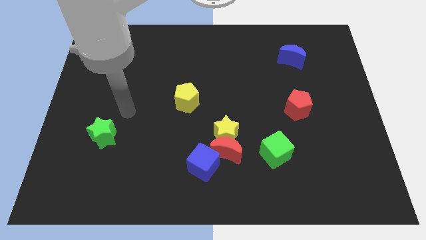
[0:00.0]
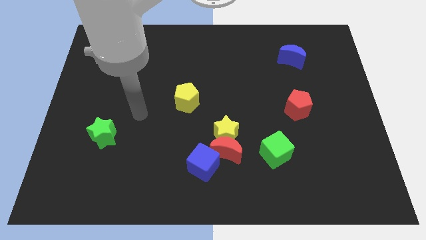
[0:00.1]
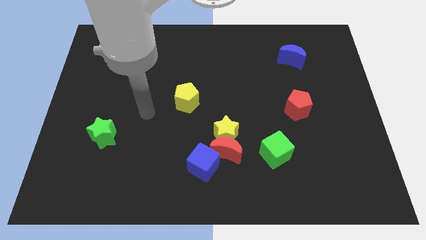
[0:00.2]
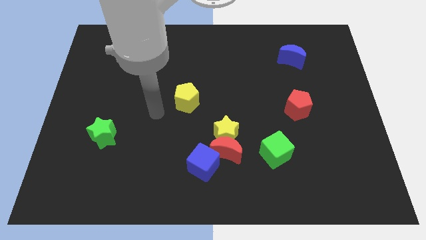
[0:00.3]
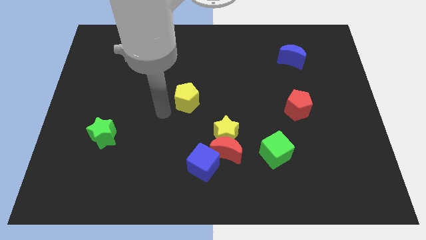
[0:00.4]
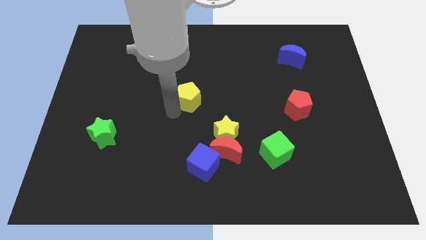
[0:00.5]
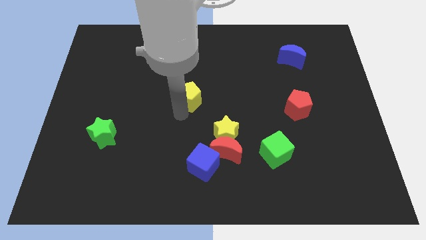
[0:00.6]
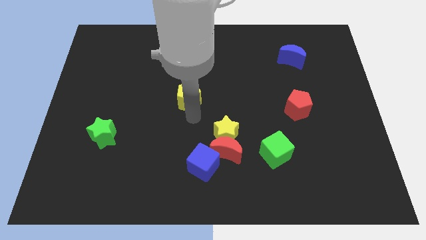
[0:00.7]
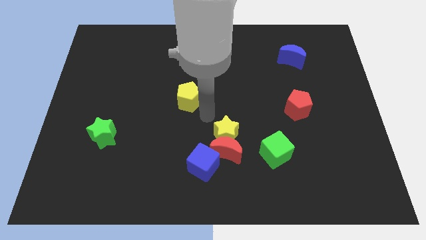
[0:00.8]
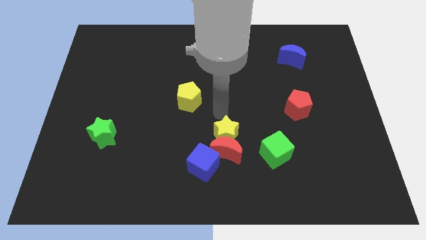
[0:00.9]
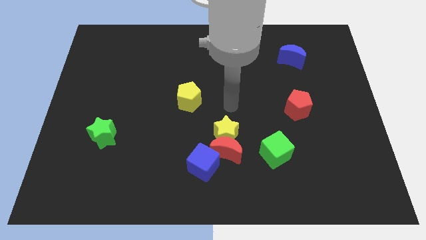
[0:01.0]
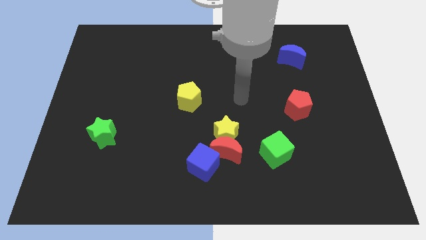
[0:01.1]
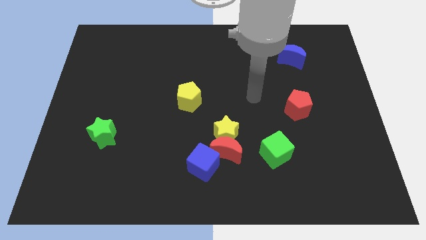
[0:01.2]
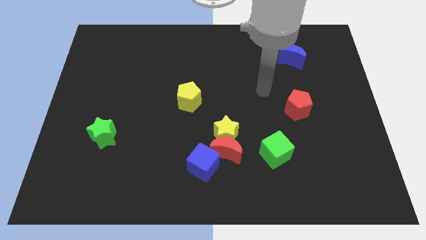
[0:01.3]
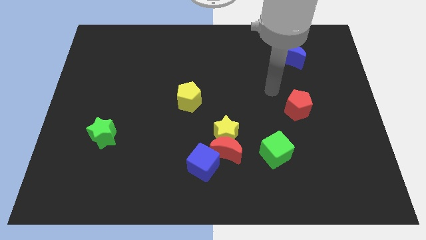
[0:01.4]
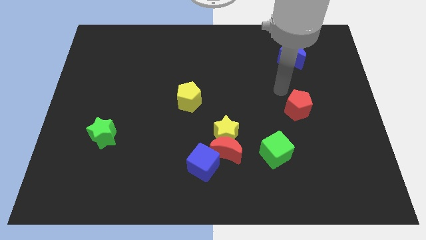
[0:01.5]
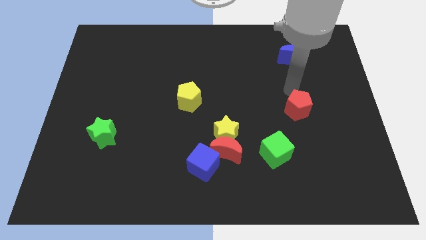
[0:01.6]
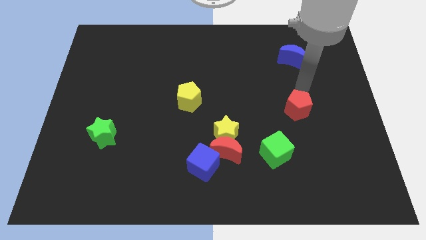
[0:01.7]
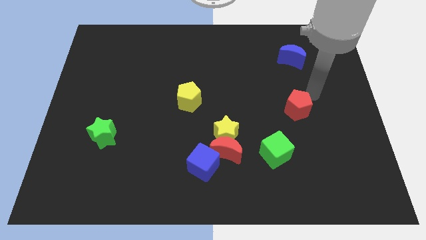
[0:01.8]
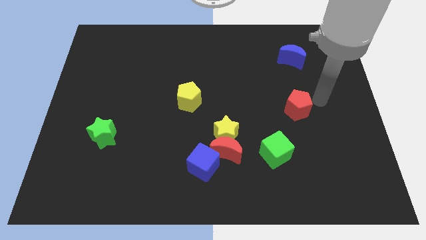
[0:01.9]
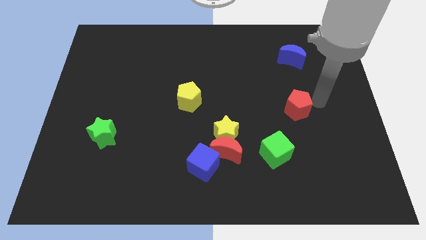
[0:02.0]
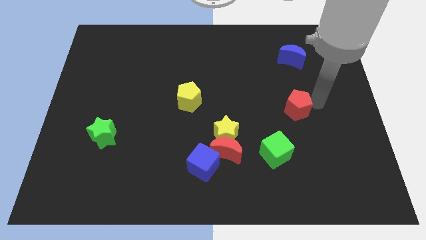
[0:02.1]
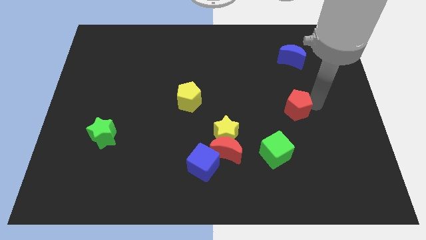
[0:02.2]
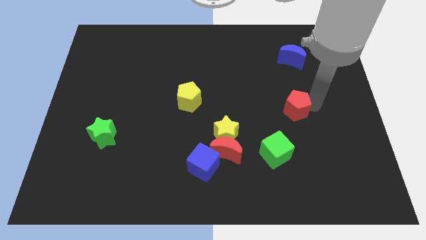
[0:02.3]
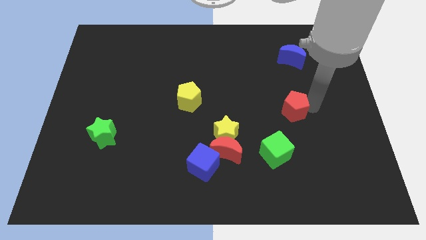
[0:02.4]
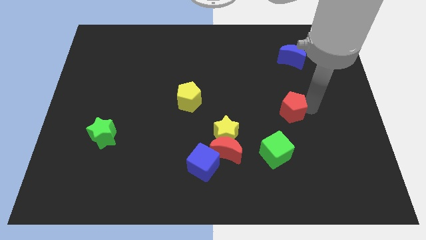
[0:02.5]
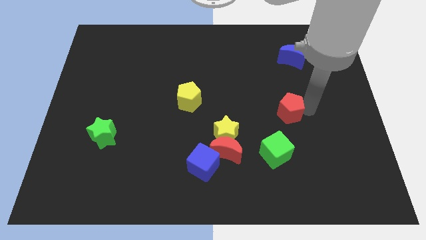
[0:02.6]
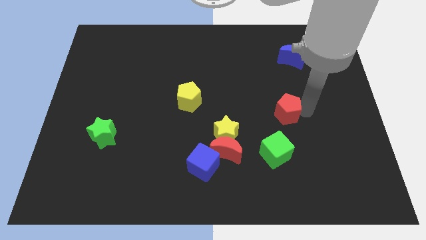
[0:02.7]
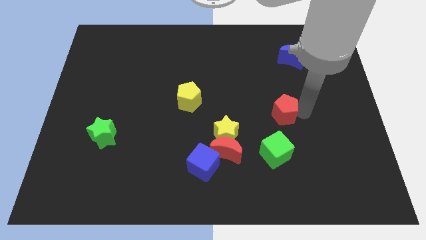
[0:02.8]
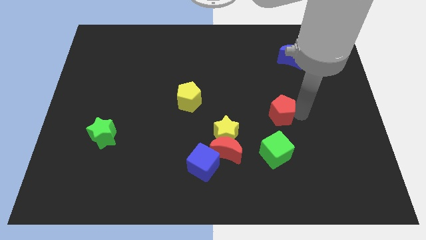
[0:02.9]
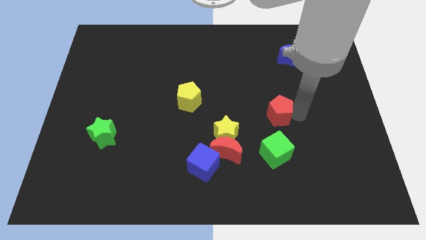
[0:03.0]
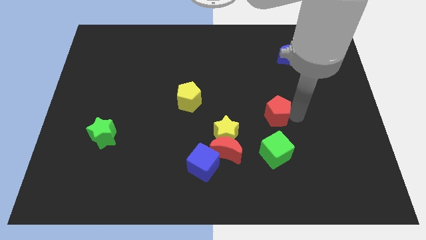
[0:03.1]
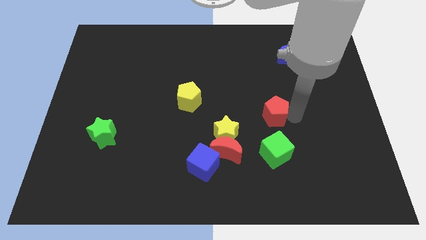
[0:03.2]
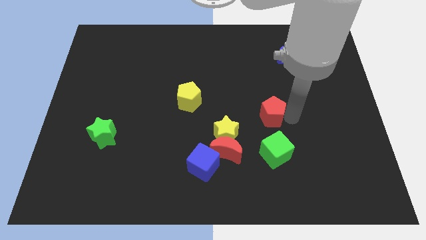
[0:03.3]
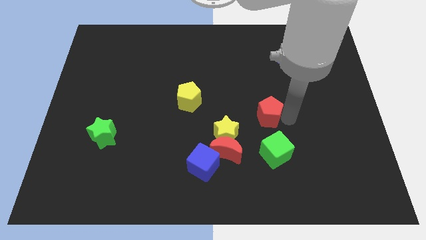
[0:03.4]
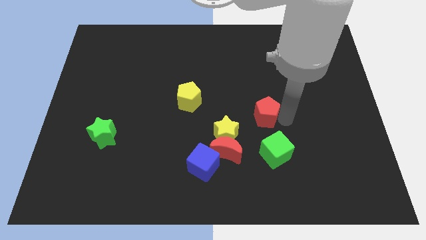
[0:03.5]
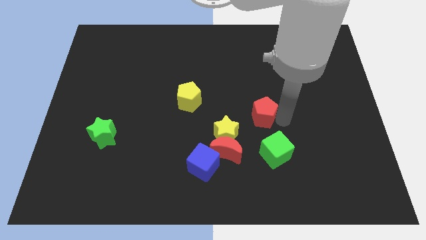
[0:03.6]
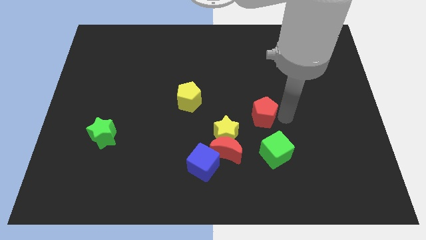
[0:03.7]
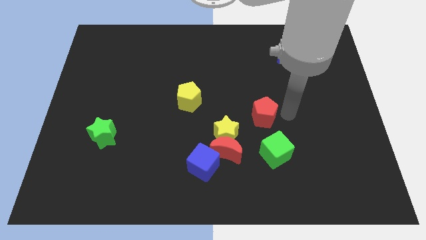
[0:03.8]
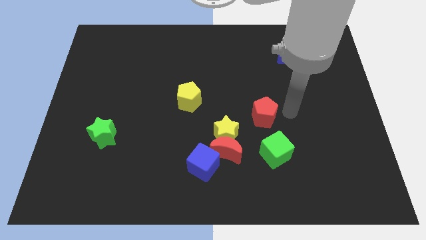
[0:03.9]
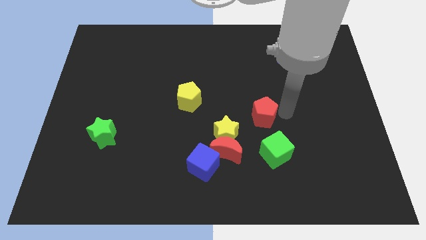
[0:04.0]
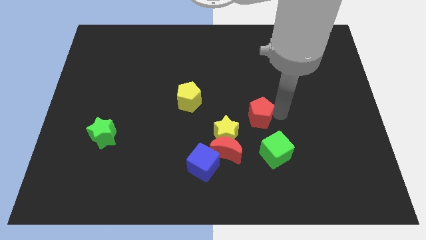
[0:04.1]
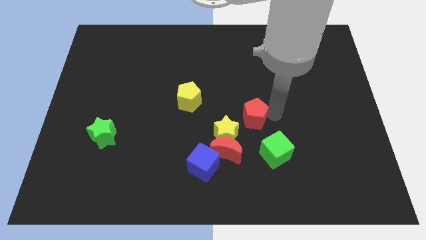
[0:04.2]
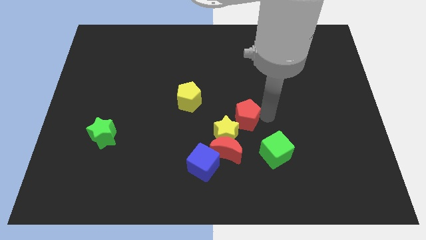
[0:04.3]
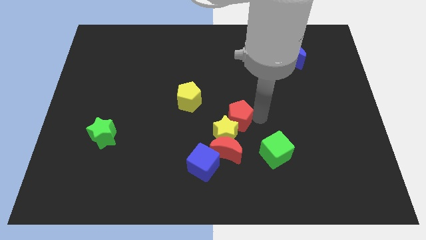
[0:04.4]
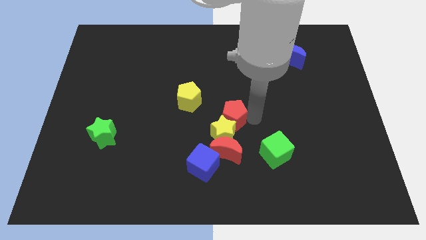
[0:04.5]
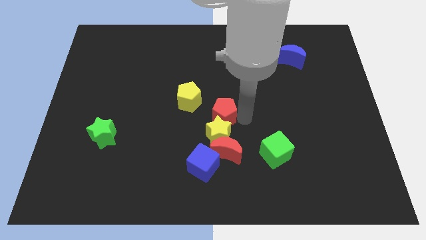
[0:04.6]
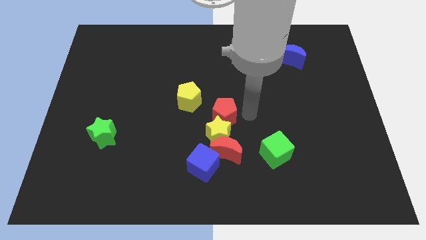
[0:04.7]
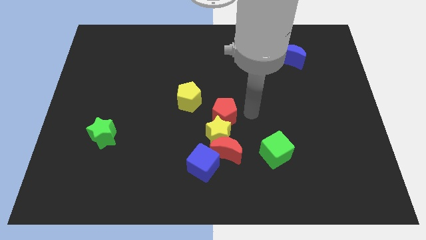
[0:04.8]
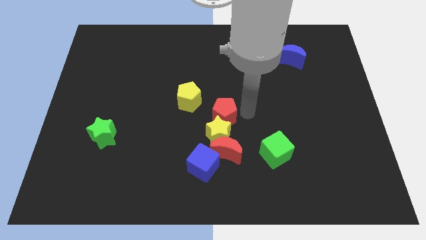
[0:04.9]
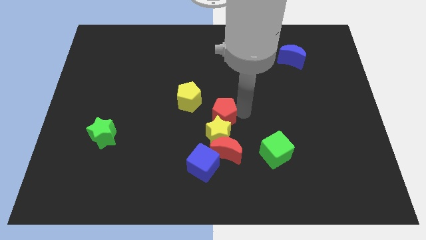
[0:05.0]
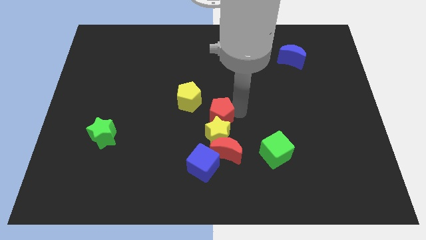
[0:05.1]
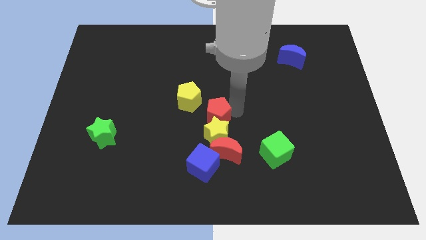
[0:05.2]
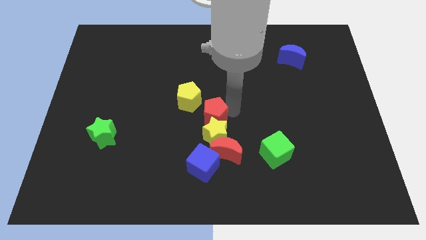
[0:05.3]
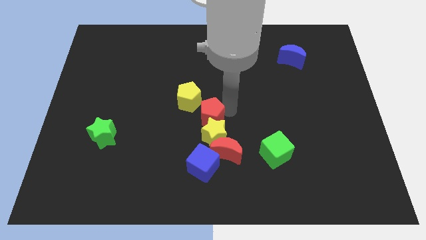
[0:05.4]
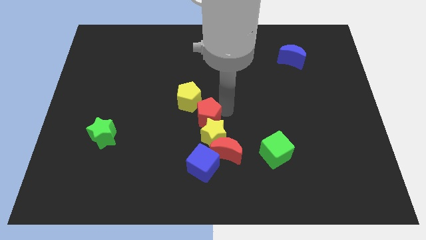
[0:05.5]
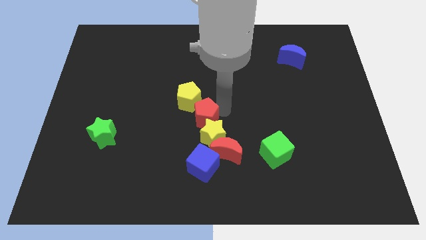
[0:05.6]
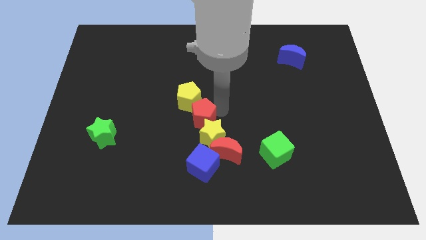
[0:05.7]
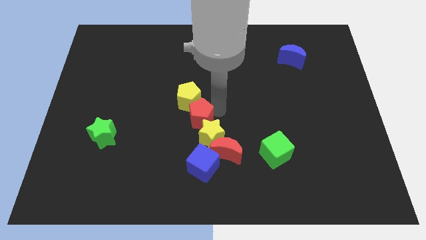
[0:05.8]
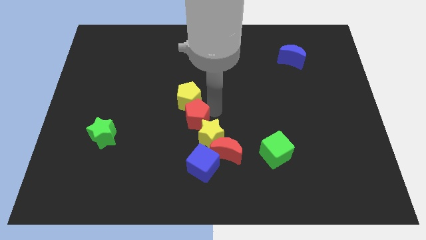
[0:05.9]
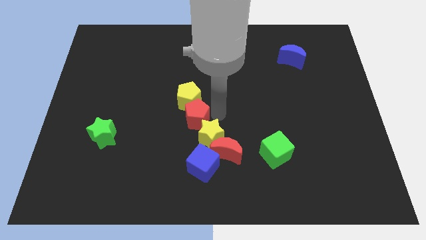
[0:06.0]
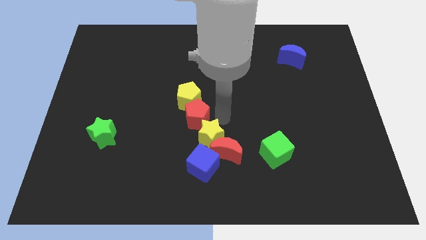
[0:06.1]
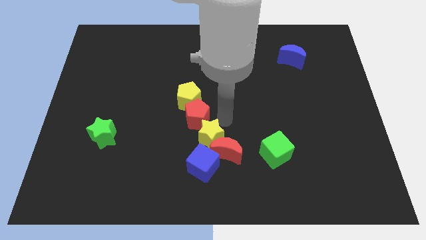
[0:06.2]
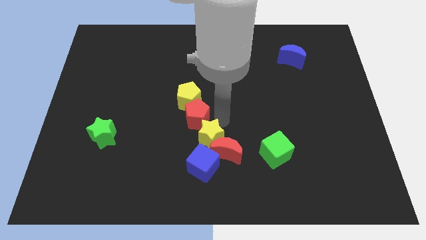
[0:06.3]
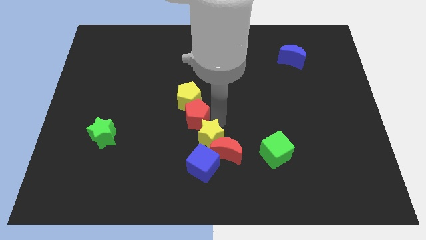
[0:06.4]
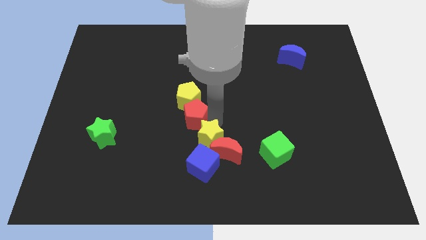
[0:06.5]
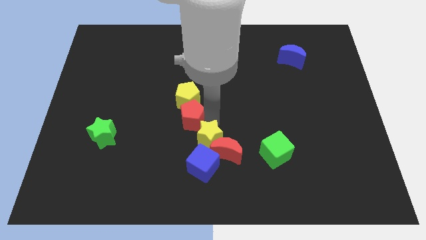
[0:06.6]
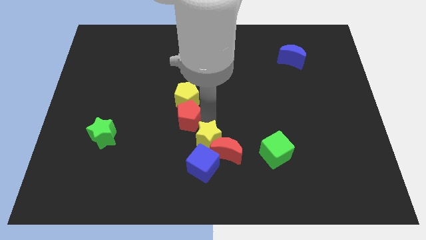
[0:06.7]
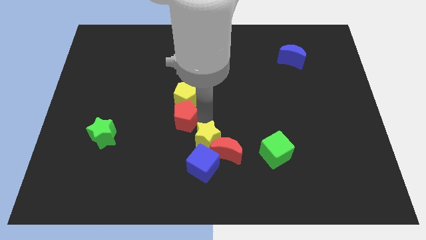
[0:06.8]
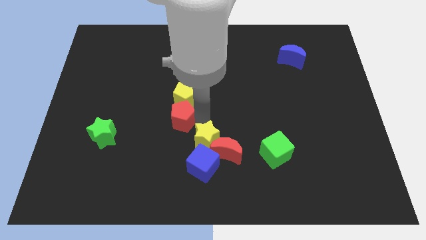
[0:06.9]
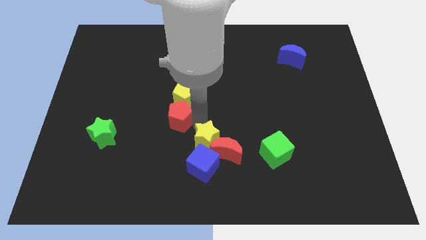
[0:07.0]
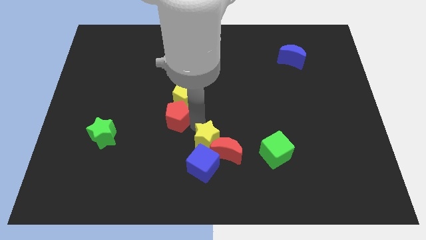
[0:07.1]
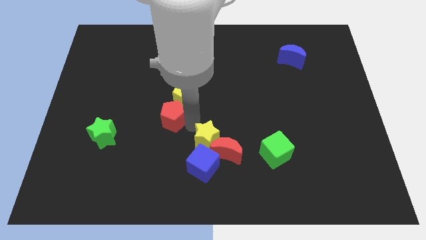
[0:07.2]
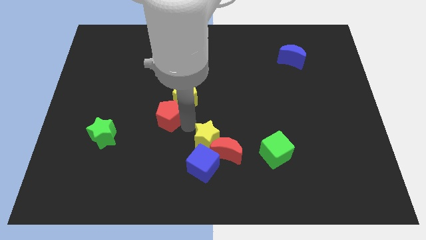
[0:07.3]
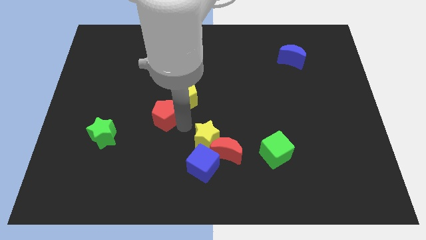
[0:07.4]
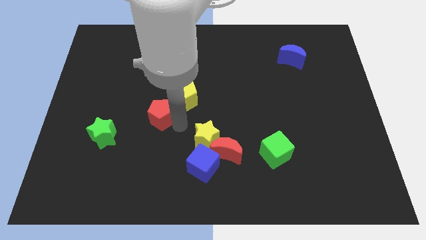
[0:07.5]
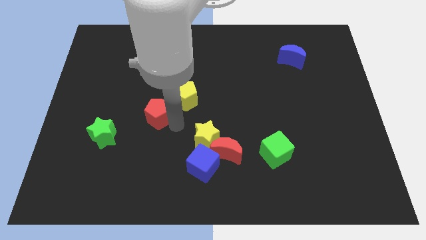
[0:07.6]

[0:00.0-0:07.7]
move the red pentagon to the left side of the yellow pentagon
